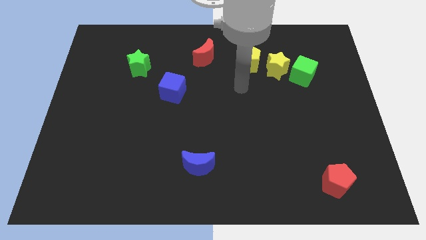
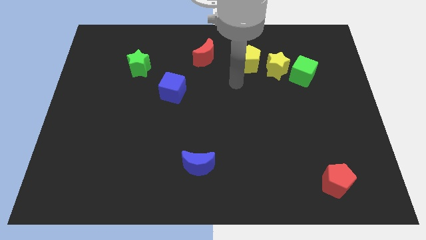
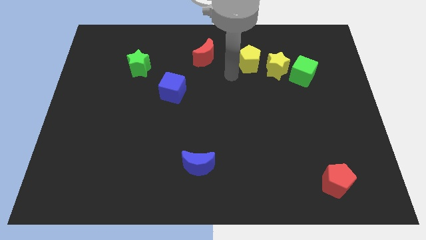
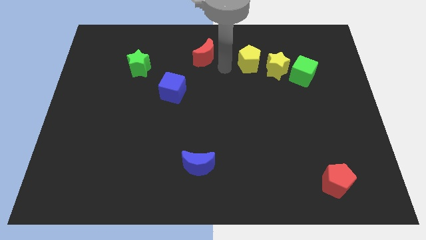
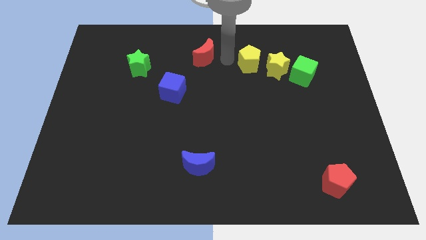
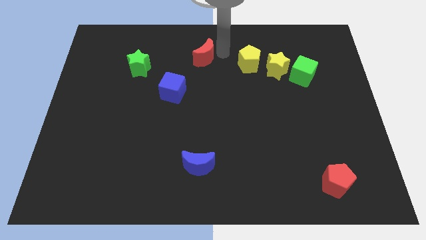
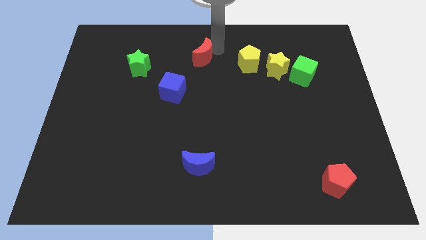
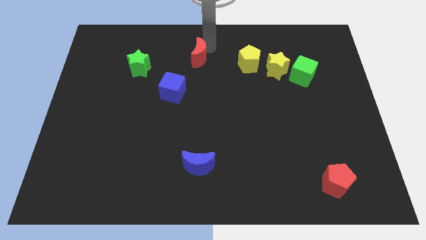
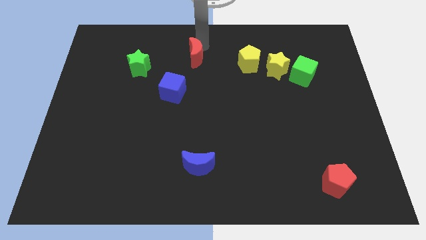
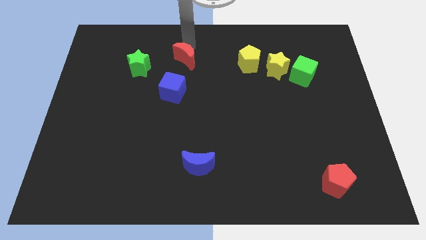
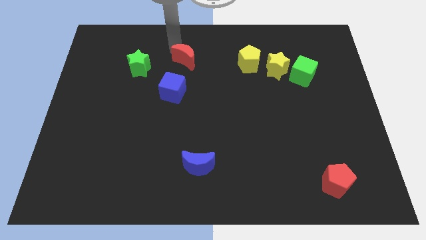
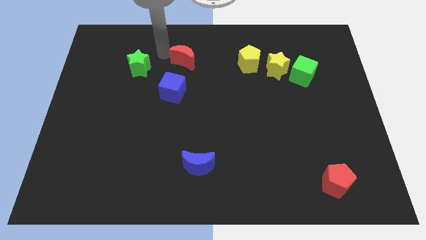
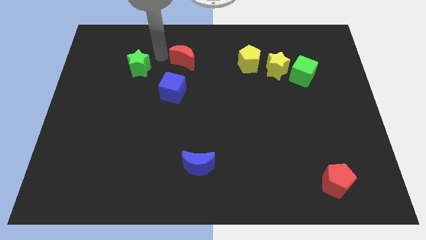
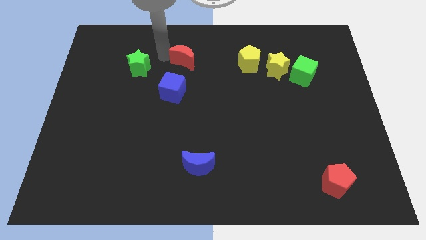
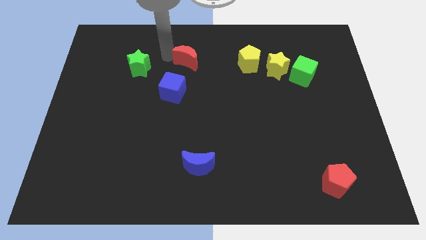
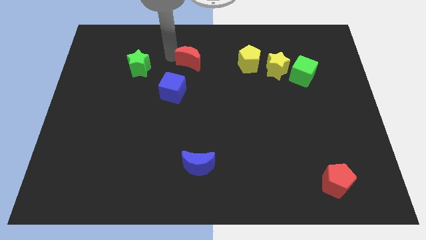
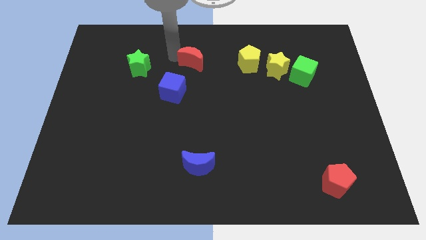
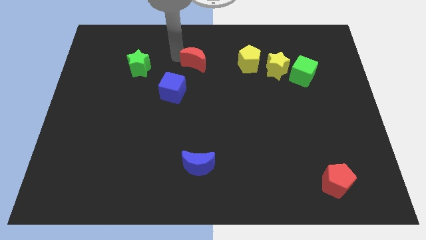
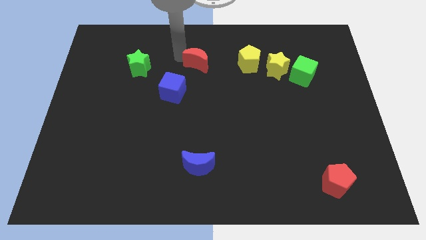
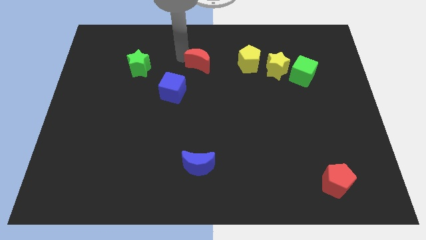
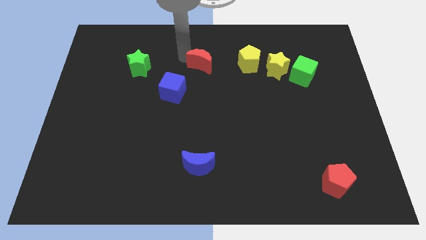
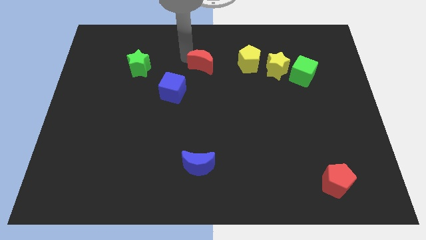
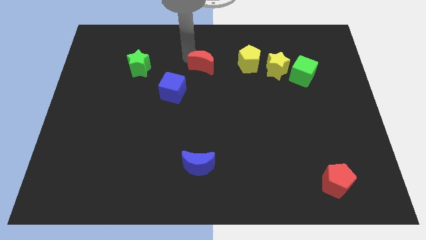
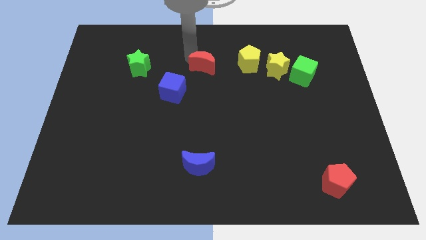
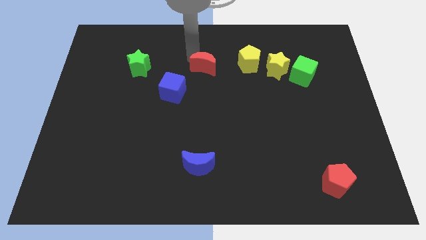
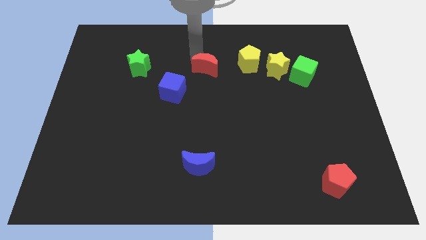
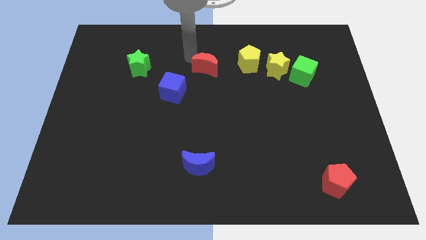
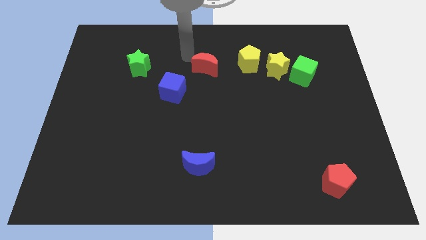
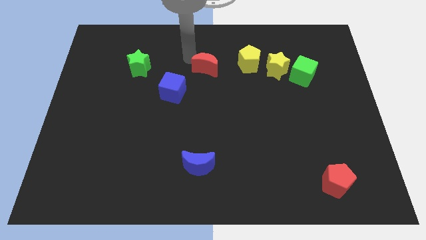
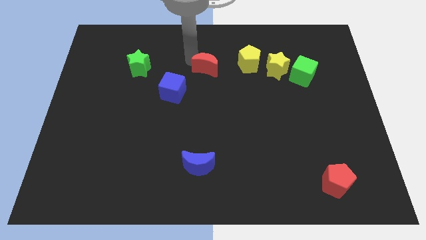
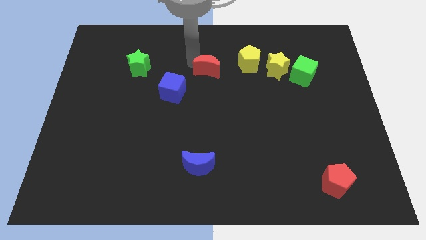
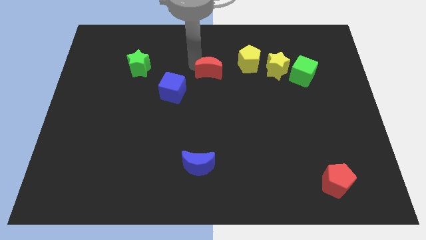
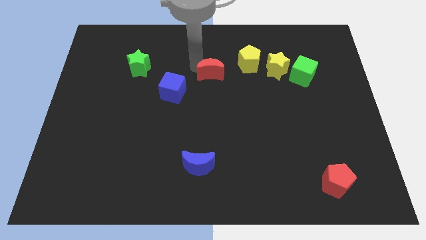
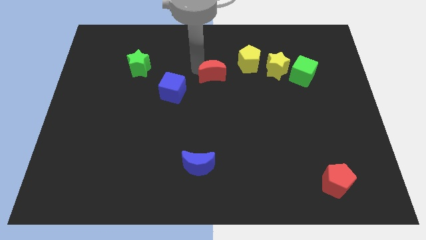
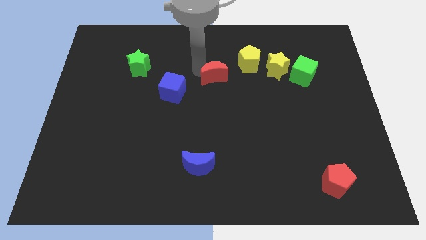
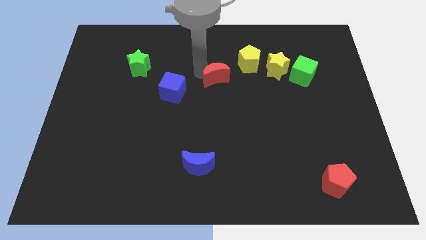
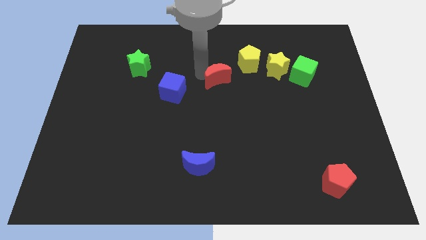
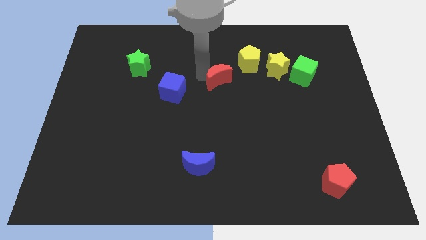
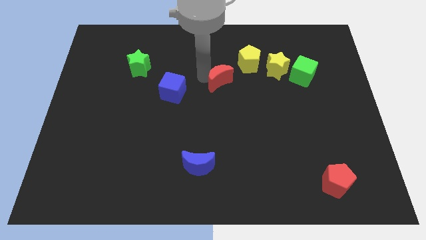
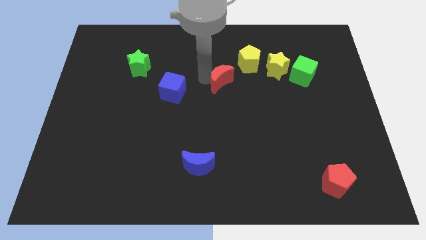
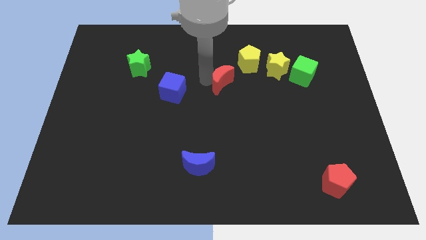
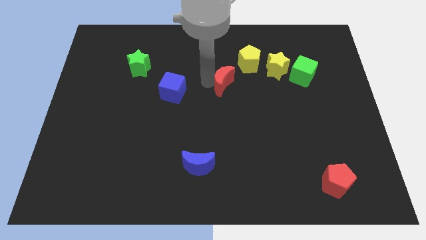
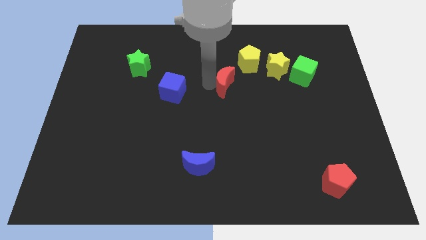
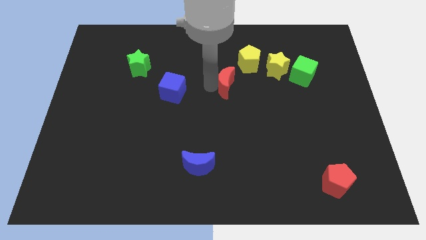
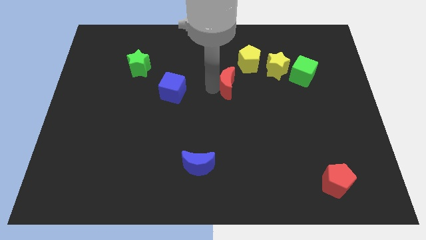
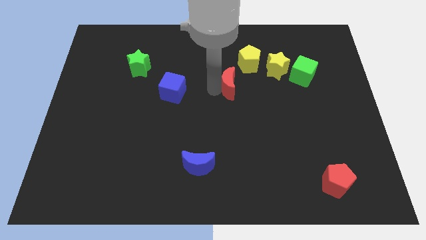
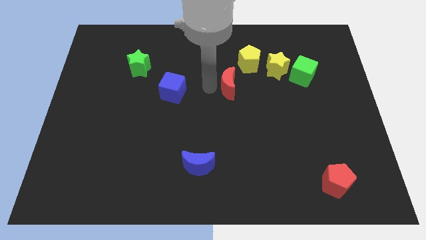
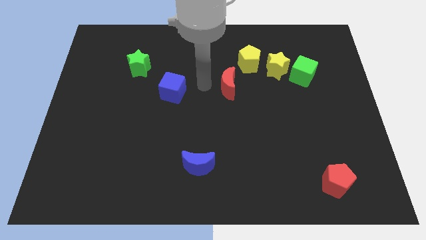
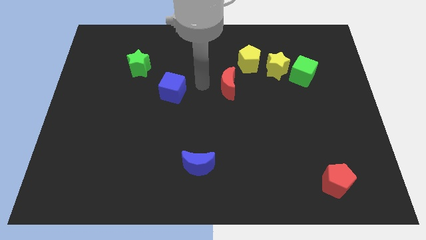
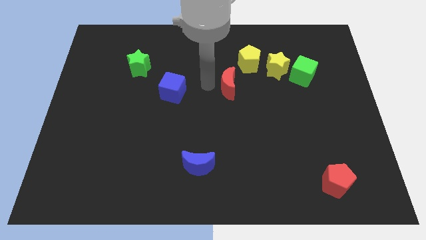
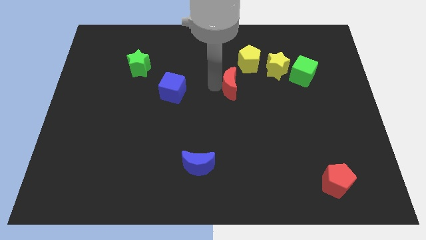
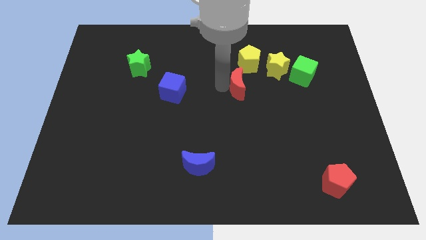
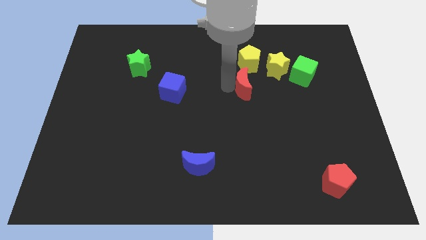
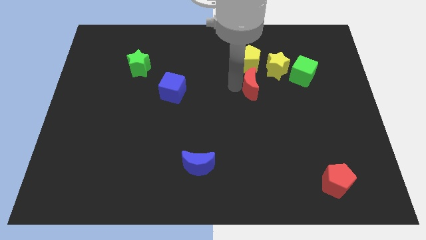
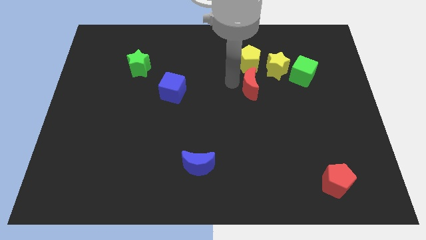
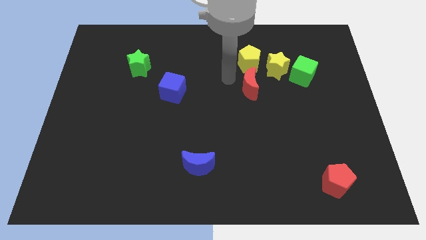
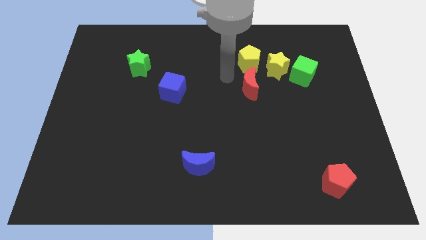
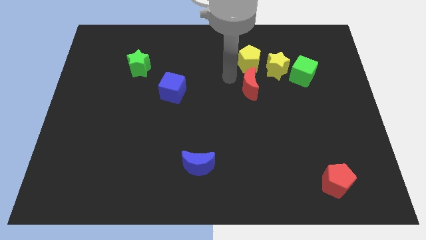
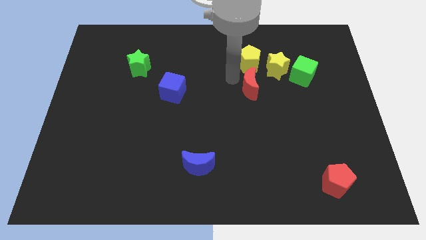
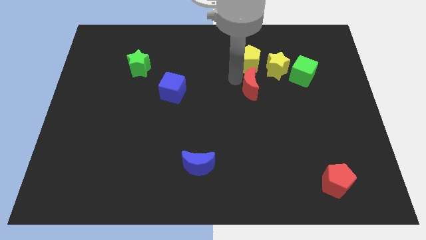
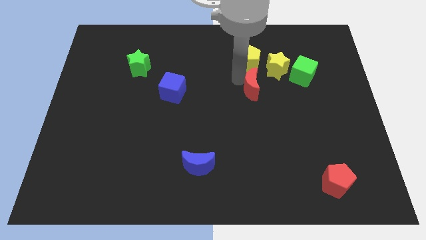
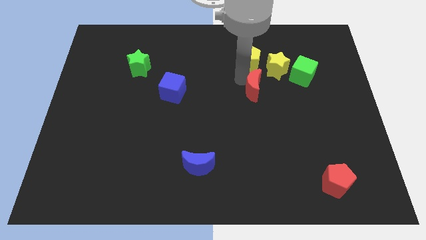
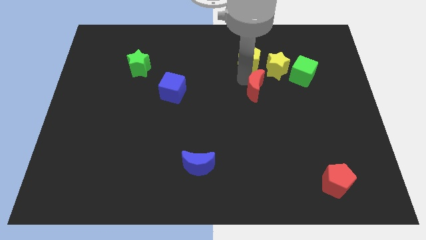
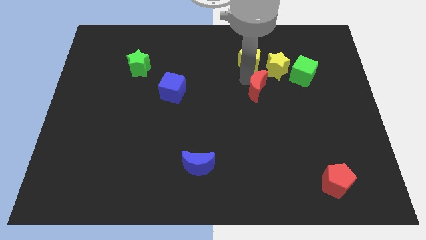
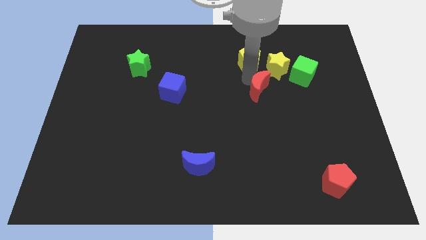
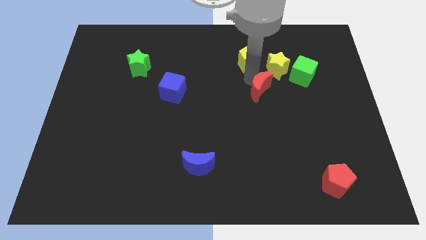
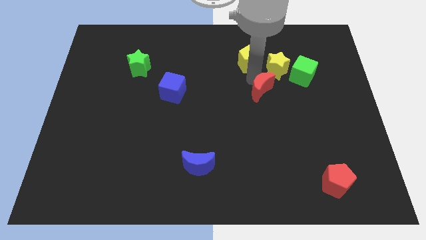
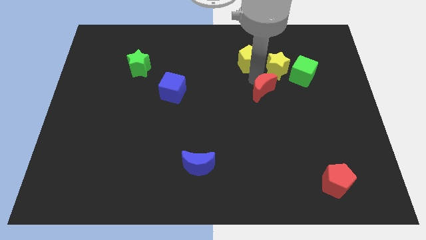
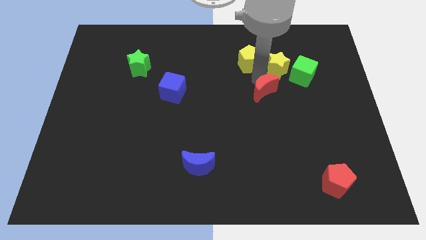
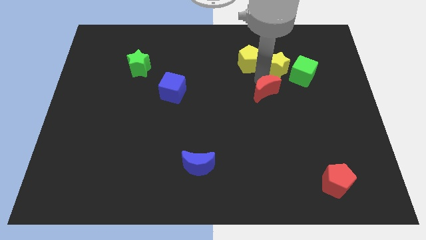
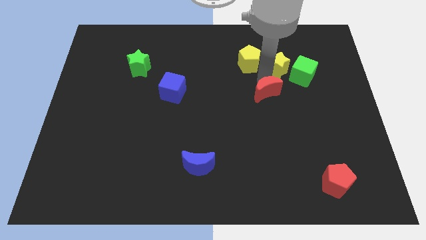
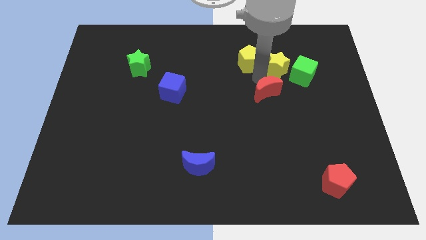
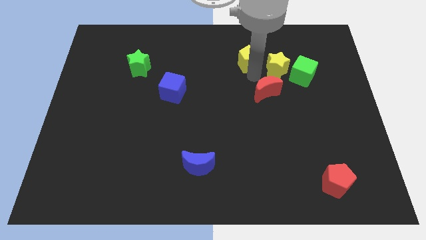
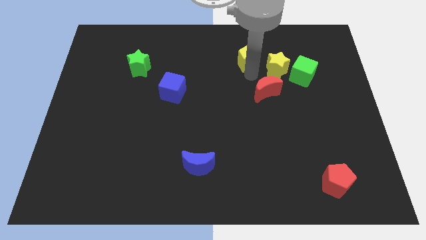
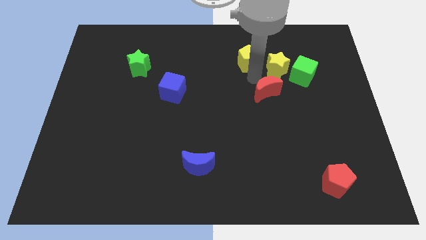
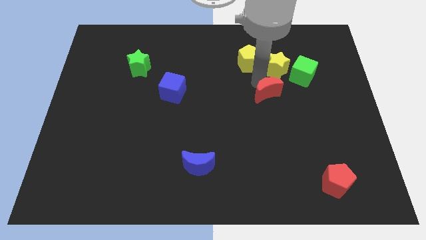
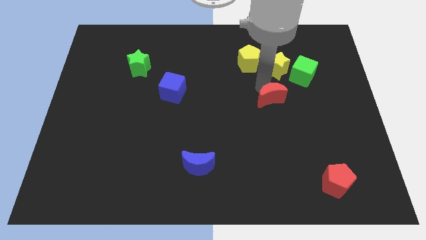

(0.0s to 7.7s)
slide the red moon diagonally down and right

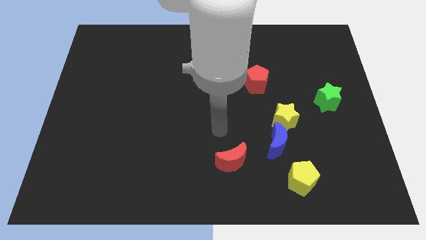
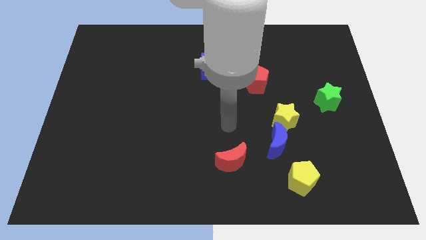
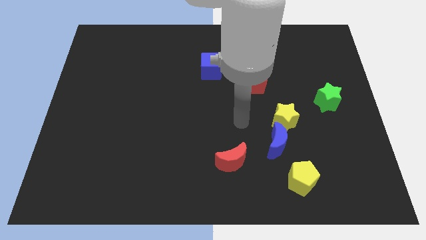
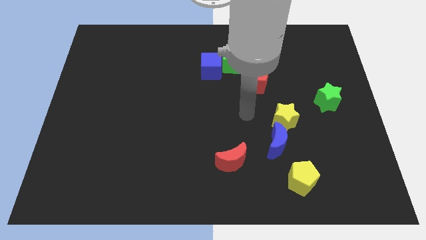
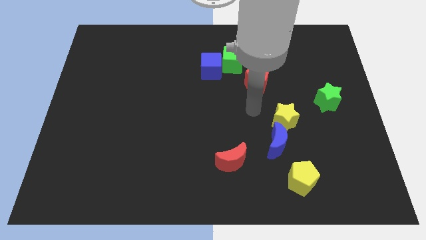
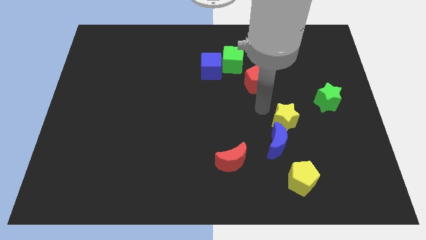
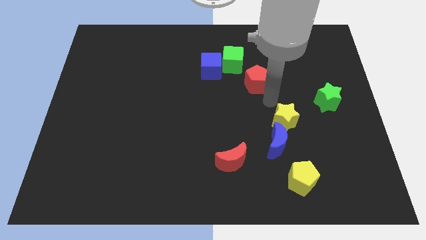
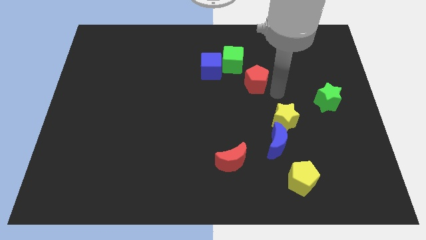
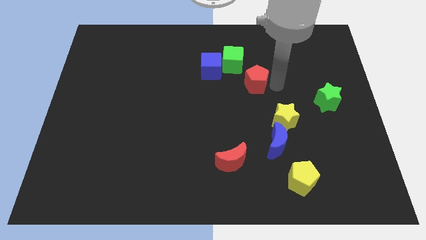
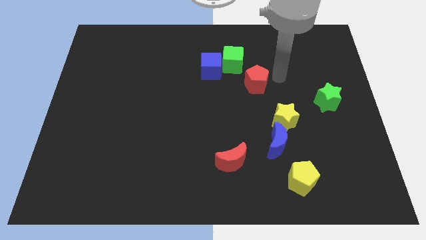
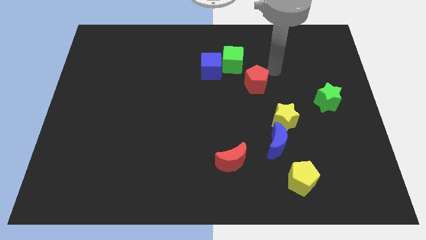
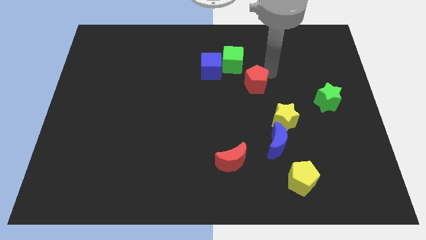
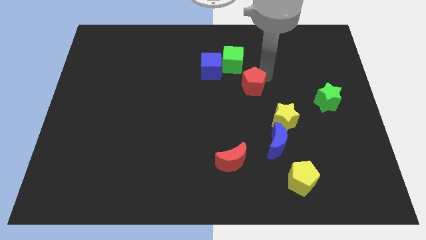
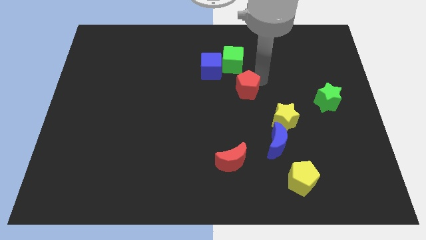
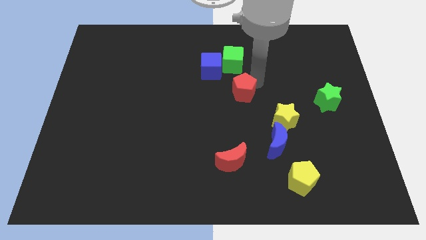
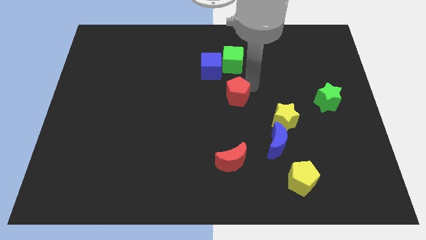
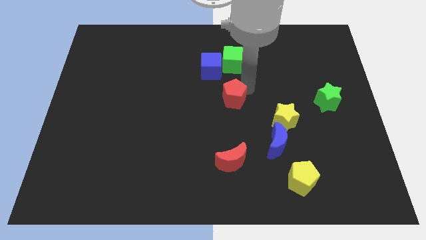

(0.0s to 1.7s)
slightly move the red pentagon down and then to the left
